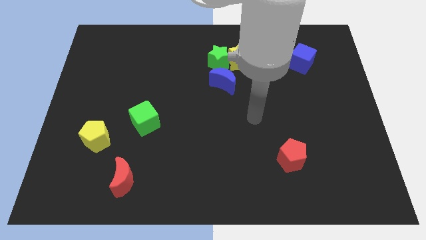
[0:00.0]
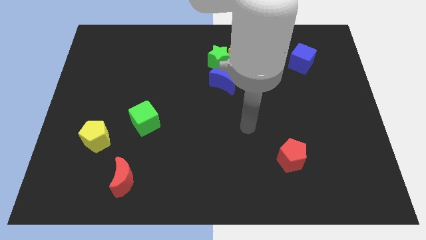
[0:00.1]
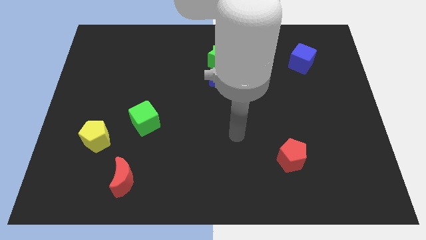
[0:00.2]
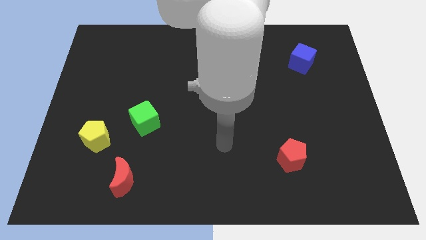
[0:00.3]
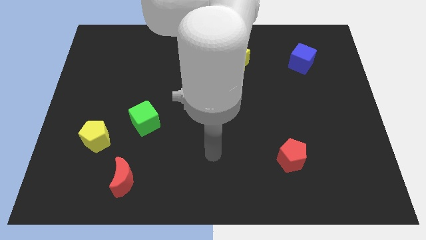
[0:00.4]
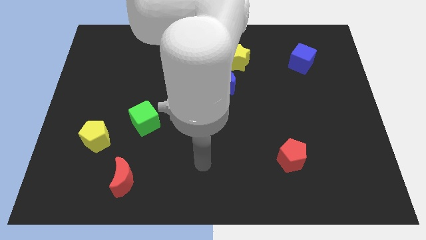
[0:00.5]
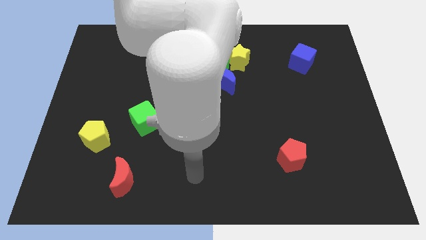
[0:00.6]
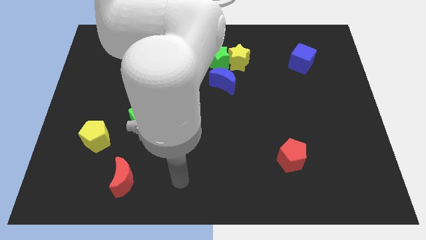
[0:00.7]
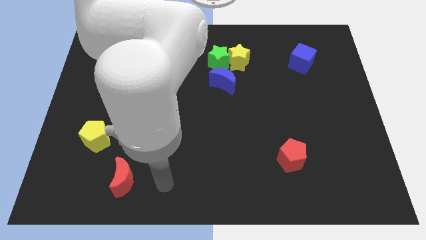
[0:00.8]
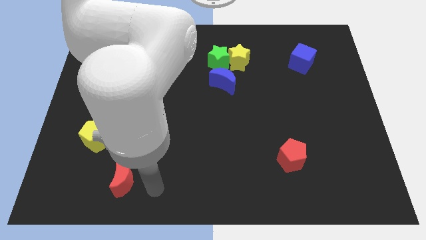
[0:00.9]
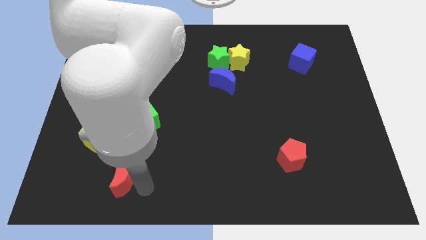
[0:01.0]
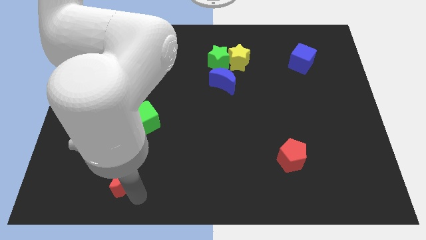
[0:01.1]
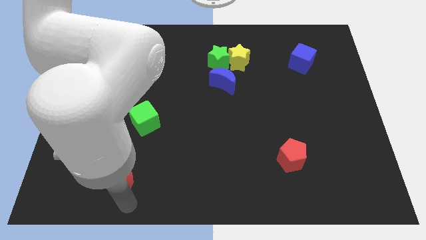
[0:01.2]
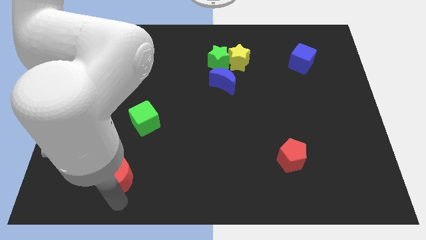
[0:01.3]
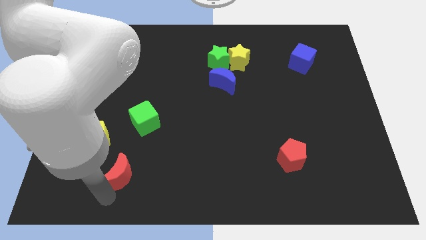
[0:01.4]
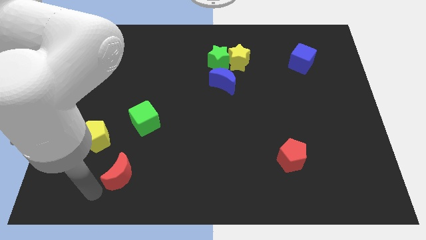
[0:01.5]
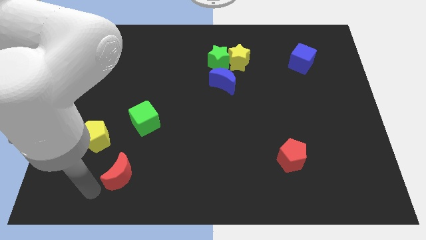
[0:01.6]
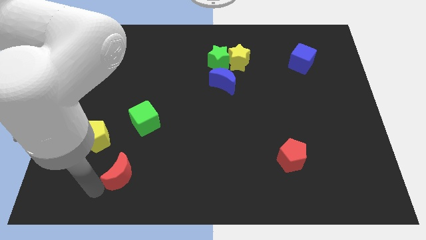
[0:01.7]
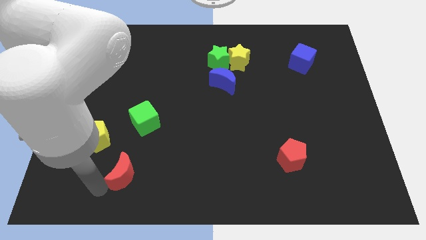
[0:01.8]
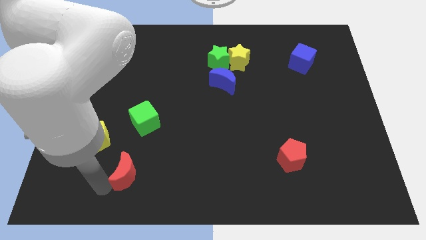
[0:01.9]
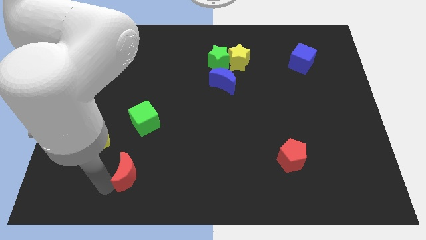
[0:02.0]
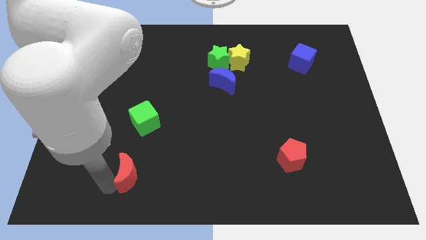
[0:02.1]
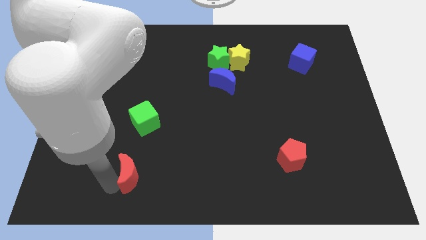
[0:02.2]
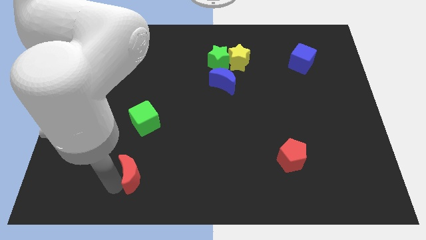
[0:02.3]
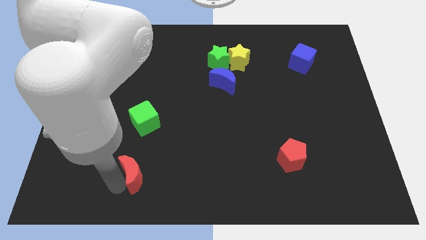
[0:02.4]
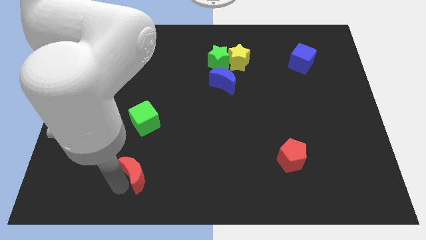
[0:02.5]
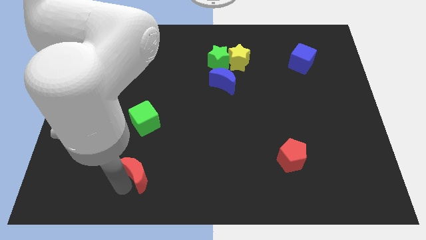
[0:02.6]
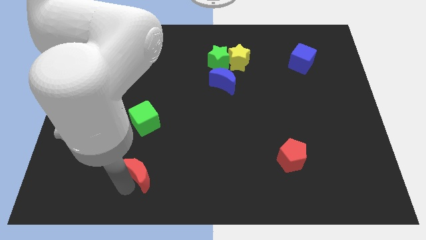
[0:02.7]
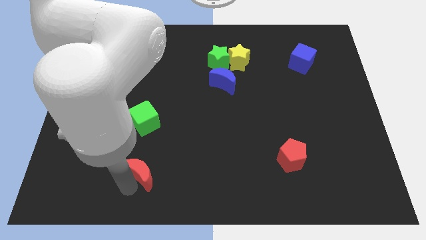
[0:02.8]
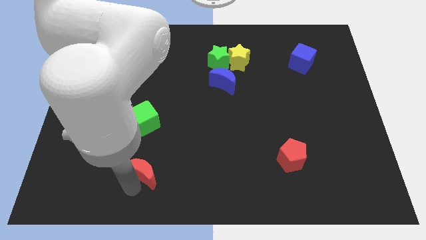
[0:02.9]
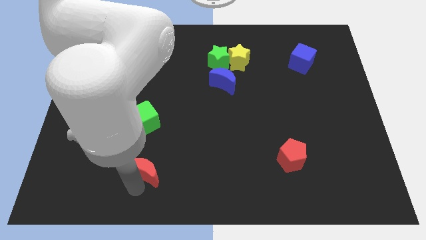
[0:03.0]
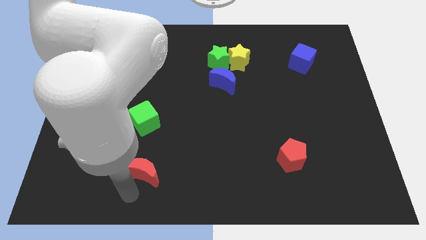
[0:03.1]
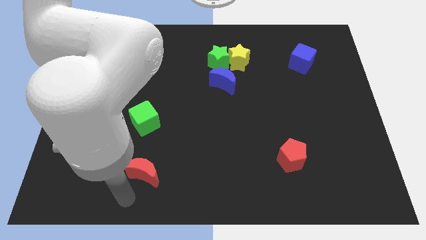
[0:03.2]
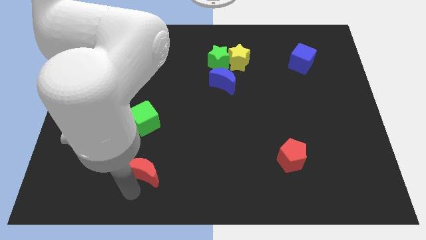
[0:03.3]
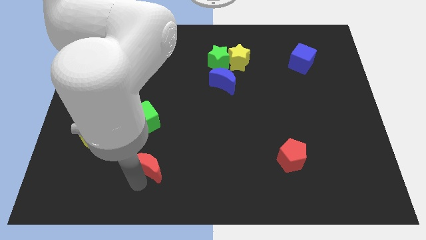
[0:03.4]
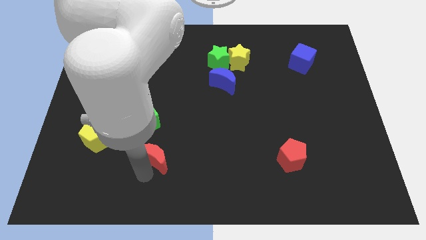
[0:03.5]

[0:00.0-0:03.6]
move the red moon up and to the right diagonally slightly

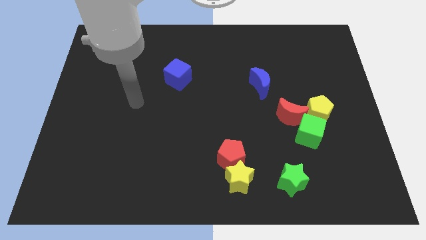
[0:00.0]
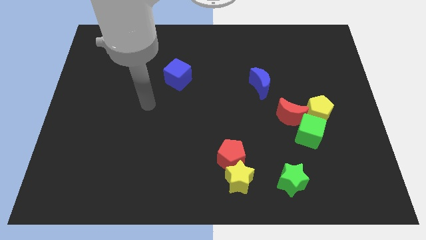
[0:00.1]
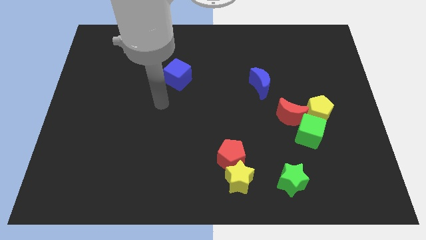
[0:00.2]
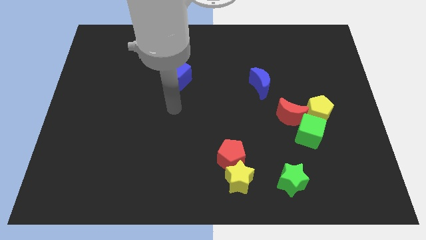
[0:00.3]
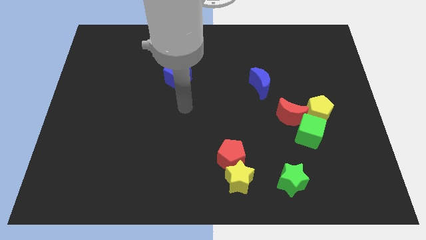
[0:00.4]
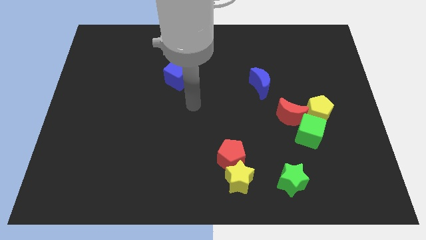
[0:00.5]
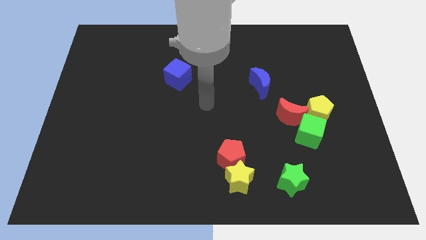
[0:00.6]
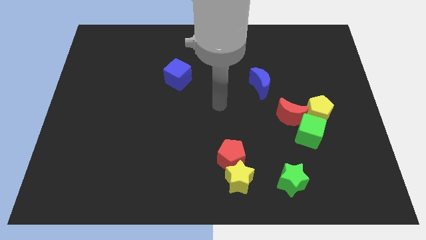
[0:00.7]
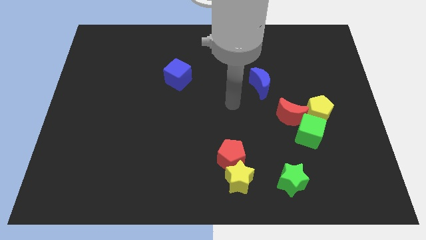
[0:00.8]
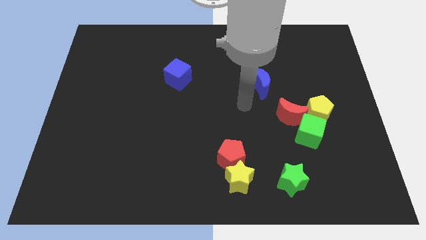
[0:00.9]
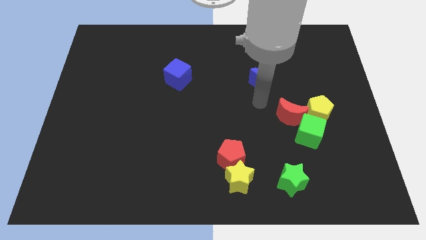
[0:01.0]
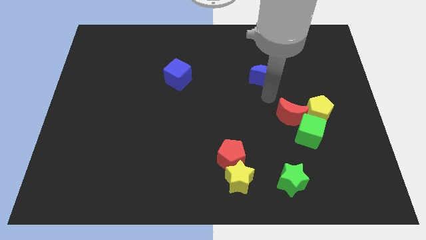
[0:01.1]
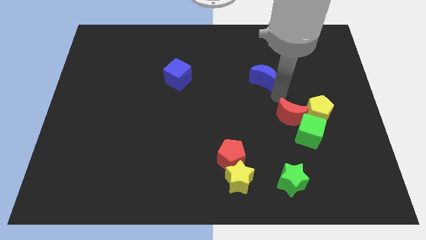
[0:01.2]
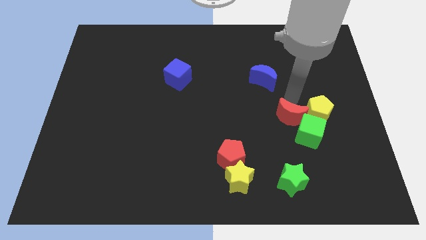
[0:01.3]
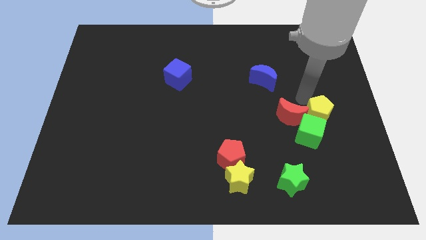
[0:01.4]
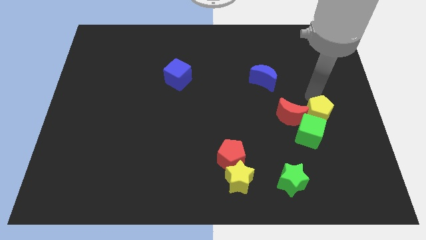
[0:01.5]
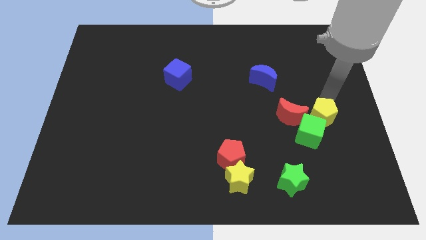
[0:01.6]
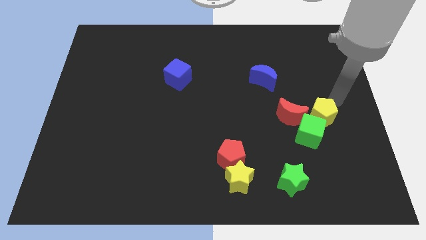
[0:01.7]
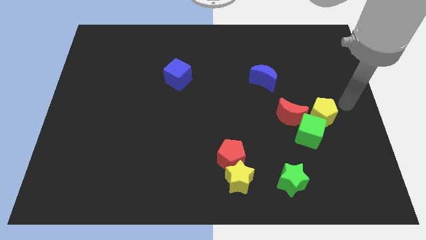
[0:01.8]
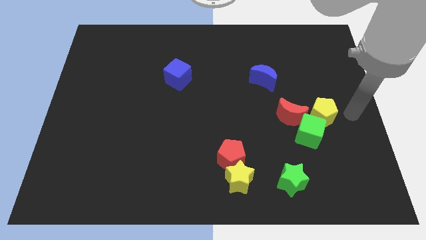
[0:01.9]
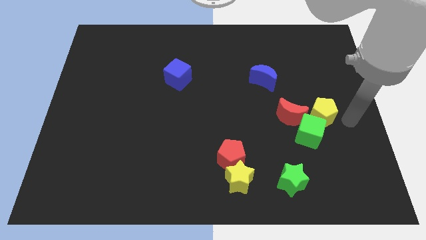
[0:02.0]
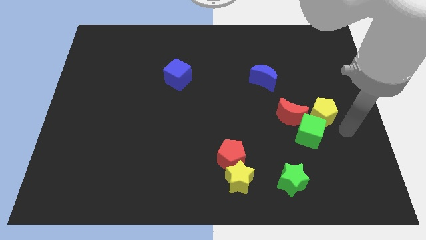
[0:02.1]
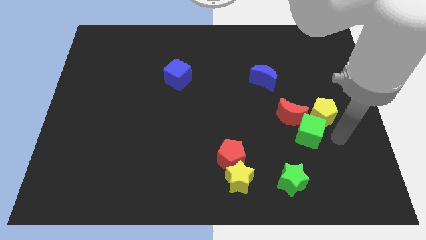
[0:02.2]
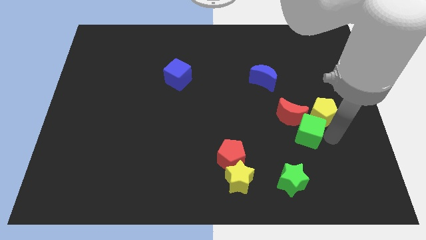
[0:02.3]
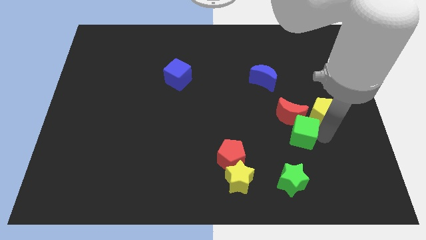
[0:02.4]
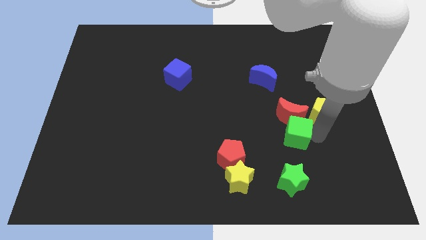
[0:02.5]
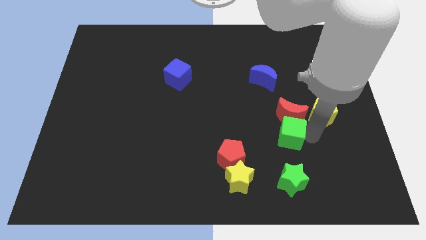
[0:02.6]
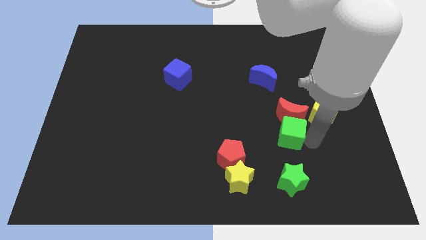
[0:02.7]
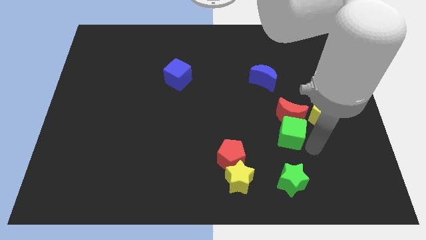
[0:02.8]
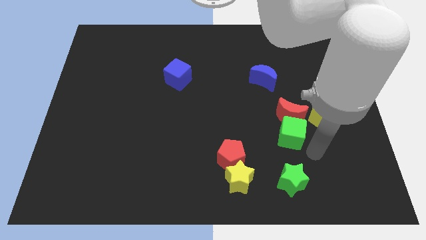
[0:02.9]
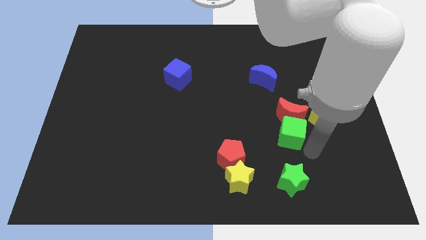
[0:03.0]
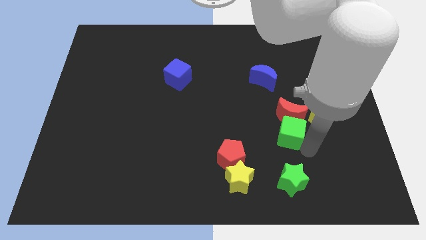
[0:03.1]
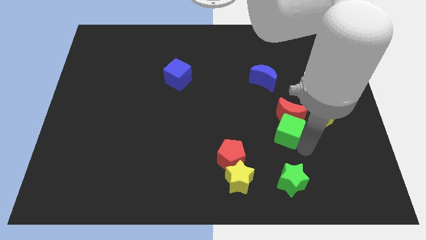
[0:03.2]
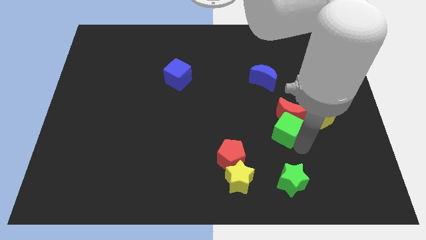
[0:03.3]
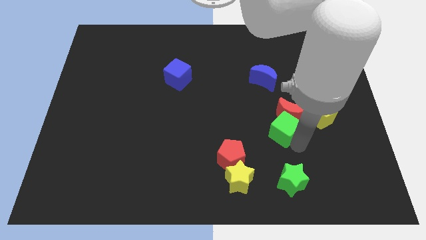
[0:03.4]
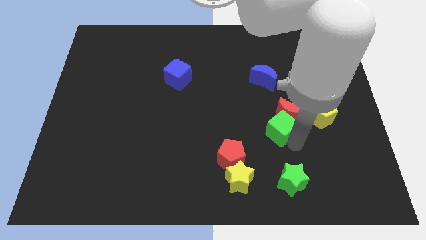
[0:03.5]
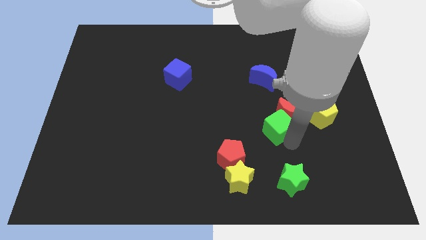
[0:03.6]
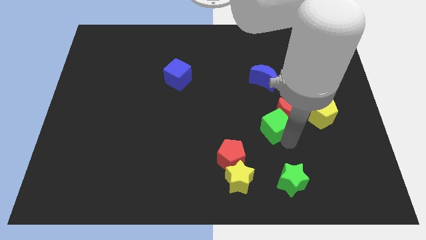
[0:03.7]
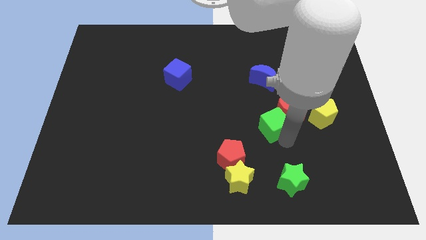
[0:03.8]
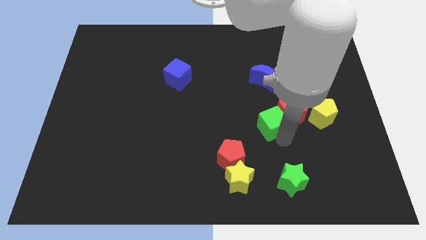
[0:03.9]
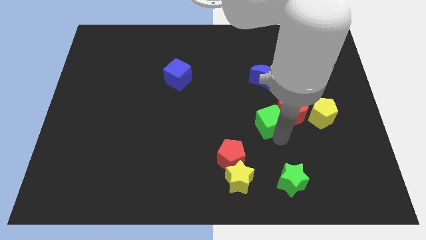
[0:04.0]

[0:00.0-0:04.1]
slightly push the green cube upwards and to the left

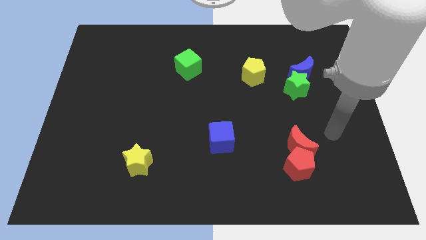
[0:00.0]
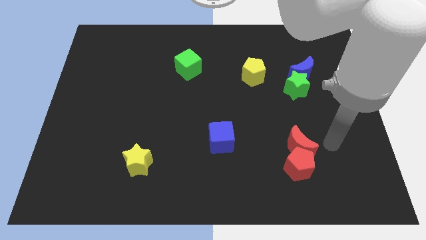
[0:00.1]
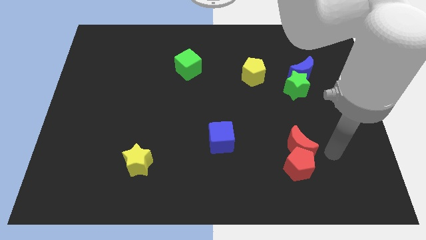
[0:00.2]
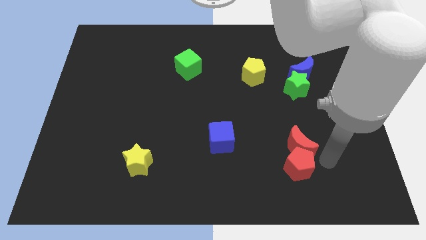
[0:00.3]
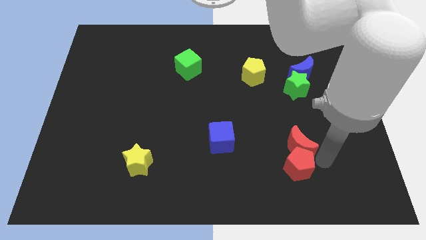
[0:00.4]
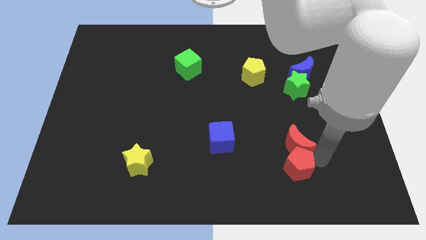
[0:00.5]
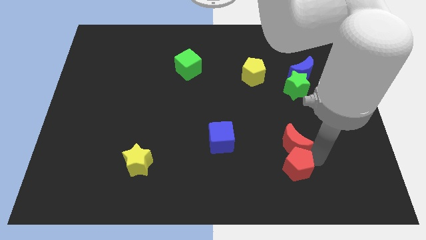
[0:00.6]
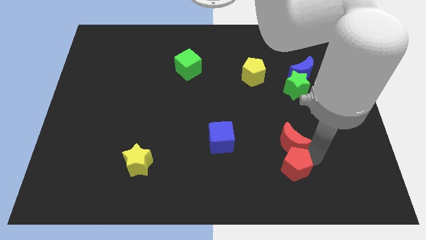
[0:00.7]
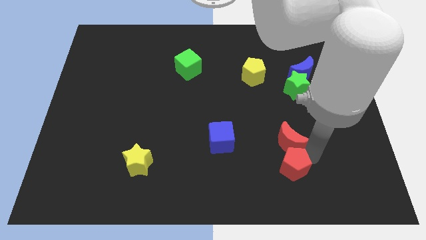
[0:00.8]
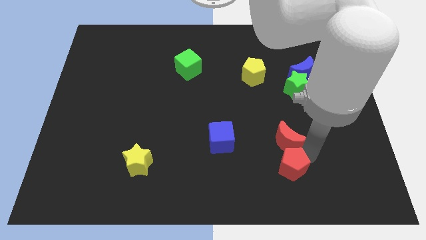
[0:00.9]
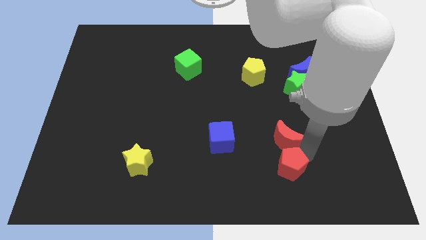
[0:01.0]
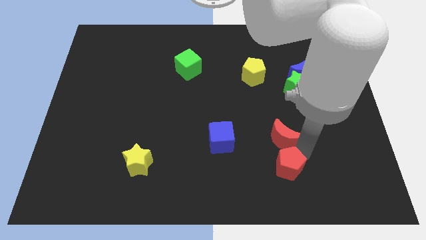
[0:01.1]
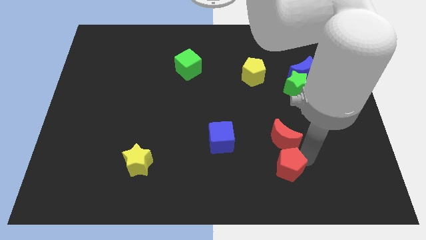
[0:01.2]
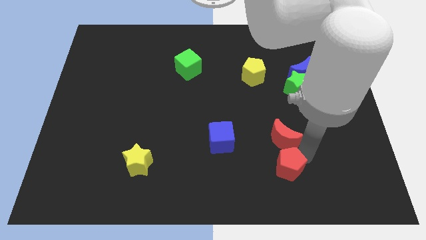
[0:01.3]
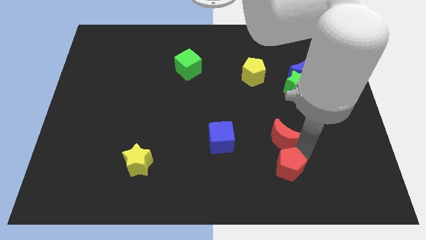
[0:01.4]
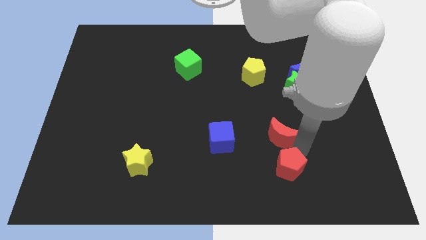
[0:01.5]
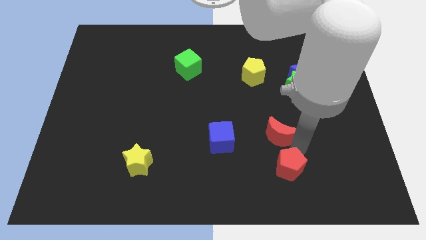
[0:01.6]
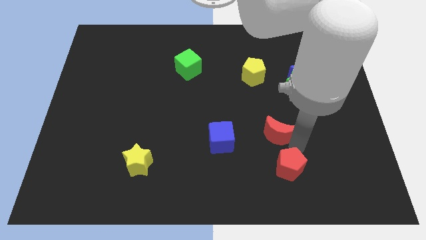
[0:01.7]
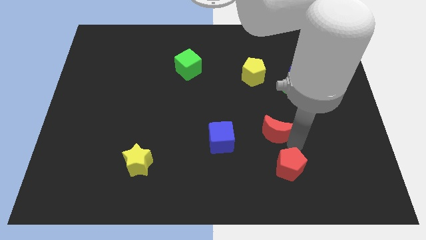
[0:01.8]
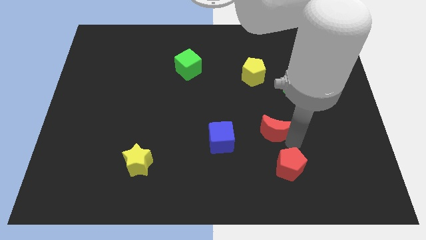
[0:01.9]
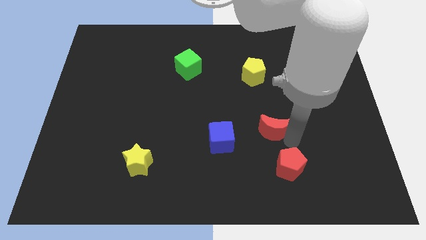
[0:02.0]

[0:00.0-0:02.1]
move the red moon a little bit upwards and left diagonally
